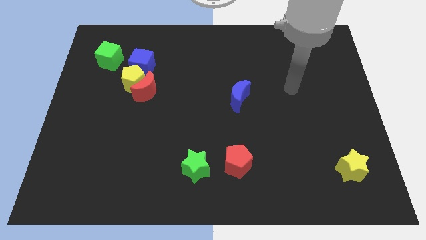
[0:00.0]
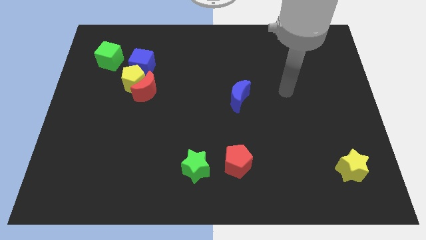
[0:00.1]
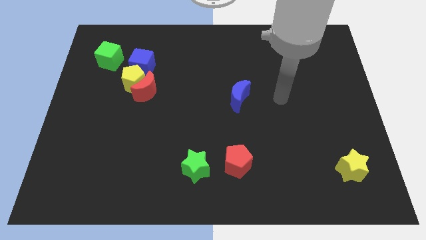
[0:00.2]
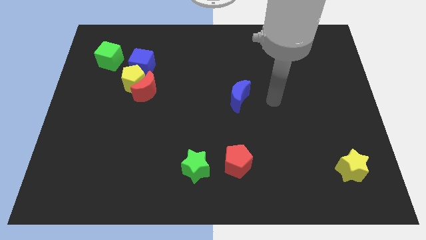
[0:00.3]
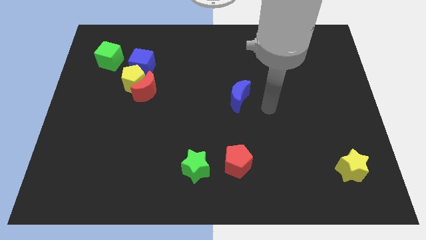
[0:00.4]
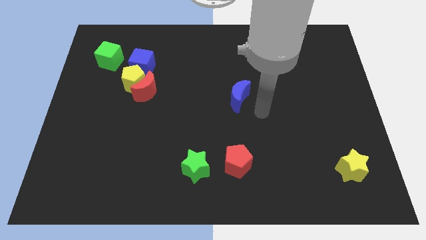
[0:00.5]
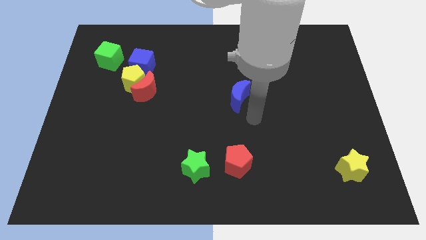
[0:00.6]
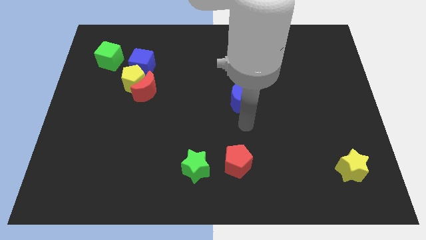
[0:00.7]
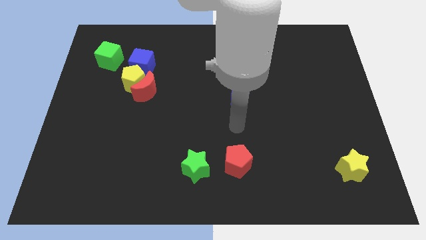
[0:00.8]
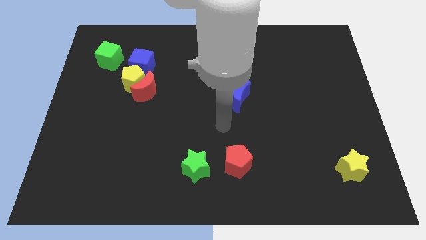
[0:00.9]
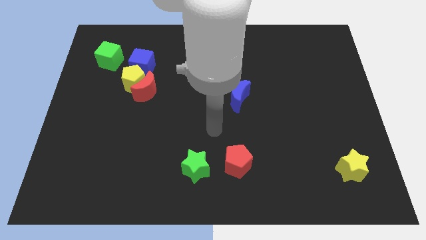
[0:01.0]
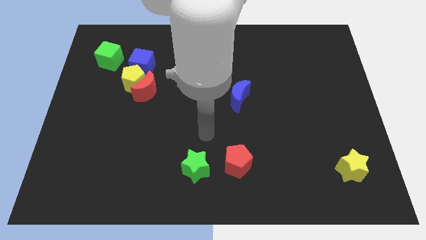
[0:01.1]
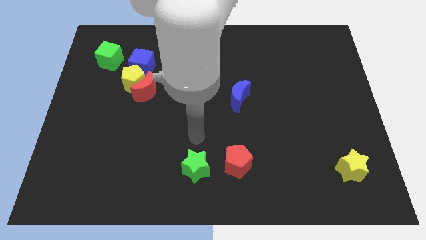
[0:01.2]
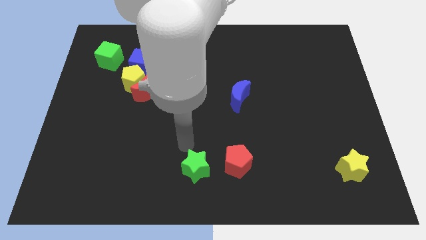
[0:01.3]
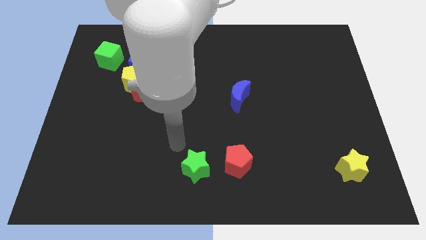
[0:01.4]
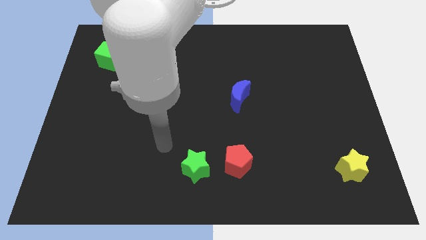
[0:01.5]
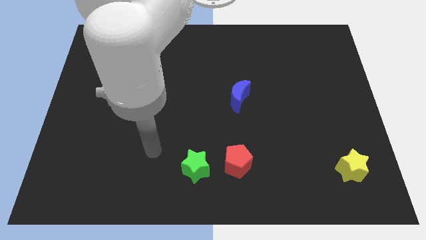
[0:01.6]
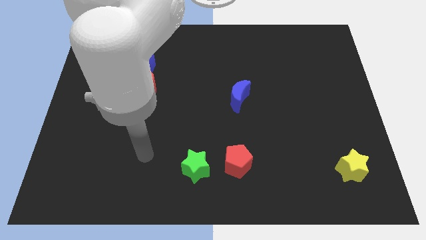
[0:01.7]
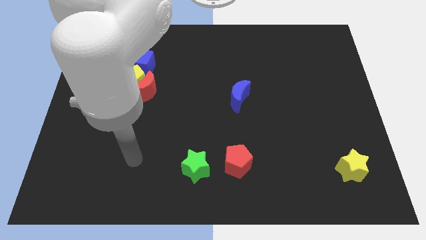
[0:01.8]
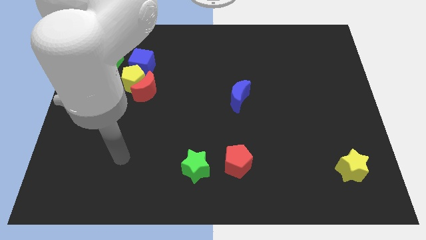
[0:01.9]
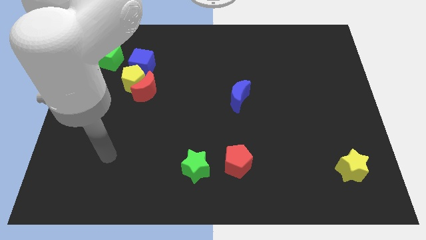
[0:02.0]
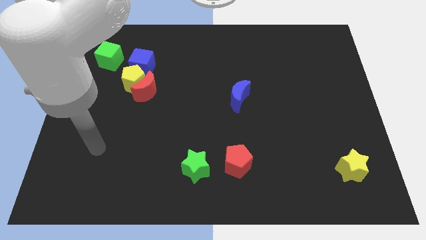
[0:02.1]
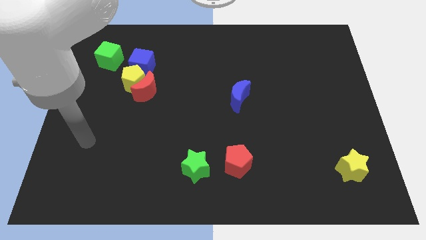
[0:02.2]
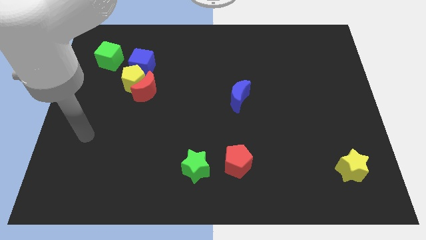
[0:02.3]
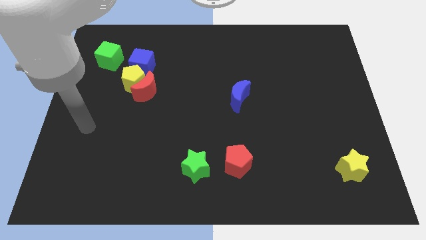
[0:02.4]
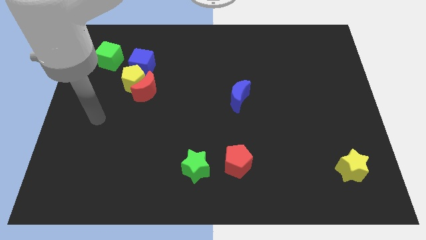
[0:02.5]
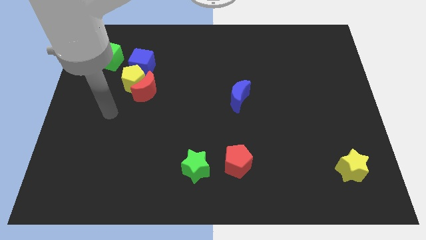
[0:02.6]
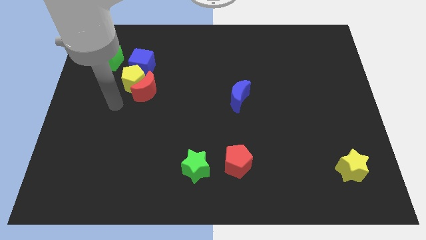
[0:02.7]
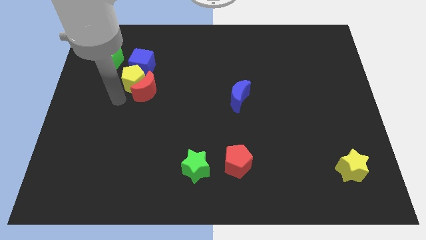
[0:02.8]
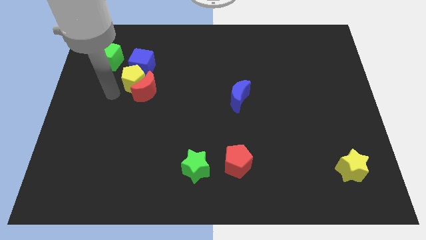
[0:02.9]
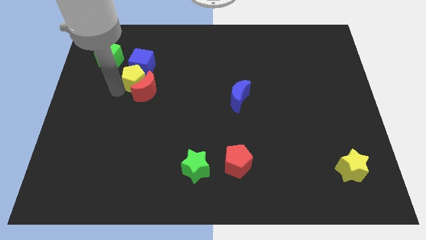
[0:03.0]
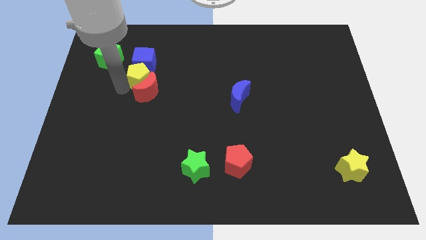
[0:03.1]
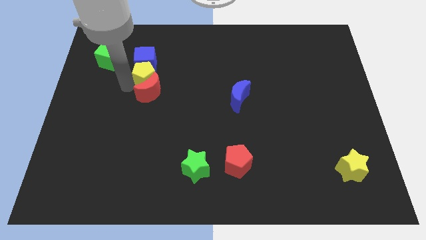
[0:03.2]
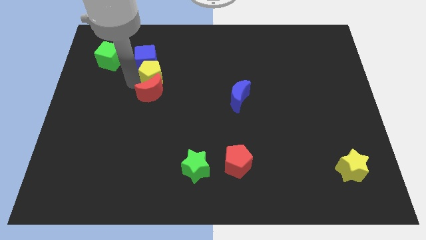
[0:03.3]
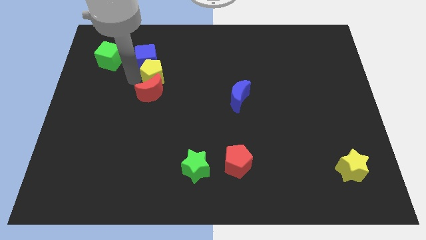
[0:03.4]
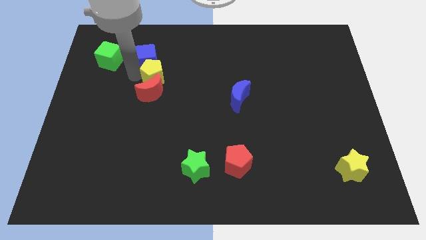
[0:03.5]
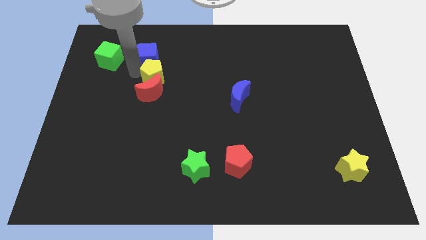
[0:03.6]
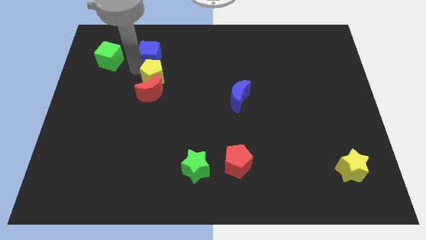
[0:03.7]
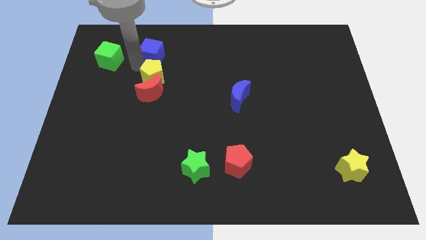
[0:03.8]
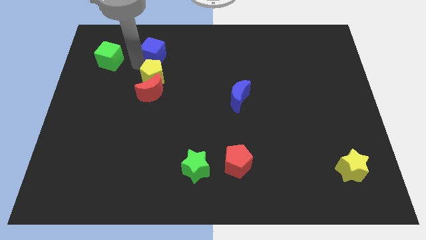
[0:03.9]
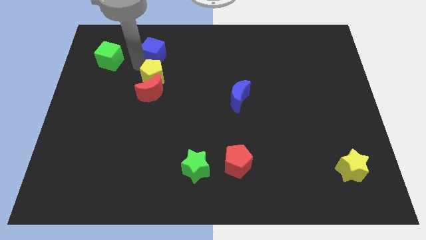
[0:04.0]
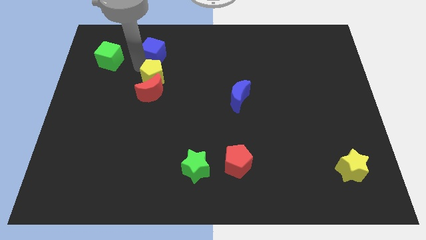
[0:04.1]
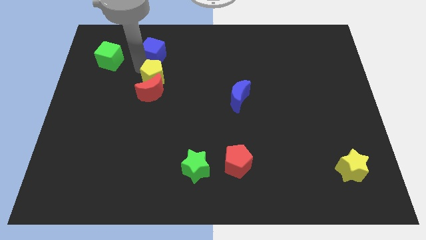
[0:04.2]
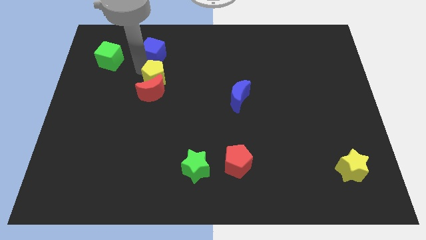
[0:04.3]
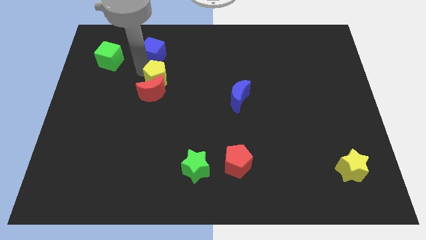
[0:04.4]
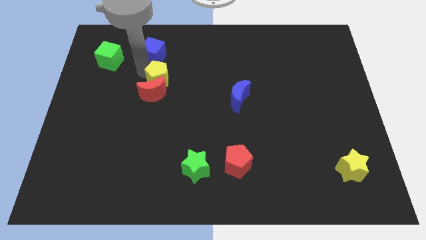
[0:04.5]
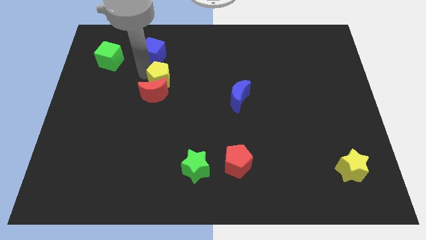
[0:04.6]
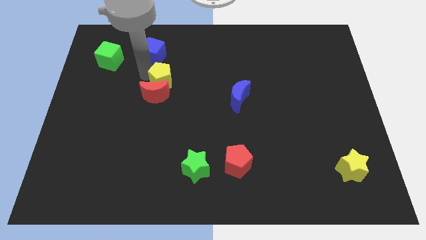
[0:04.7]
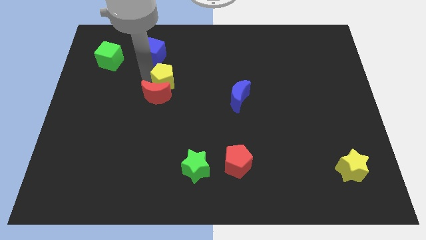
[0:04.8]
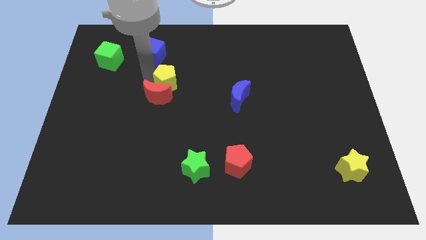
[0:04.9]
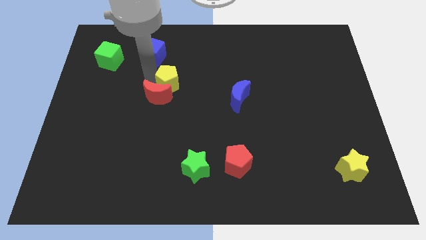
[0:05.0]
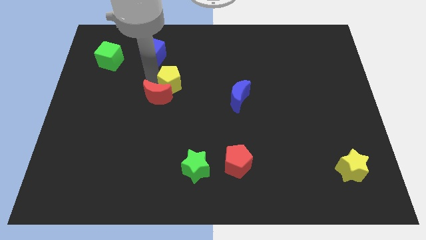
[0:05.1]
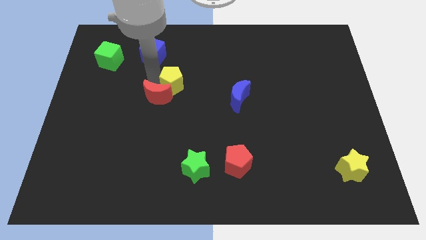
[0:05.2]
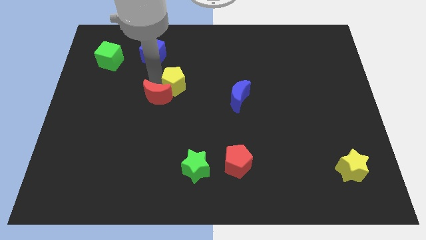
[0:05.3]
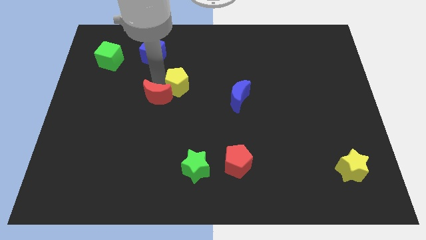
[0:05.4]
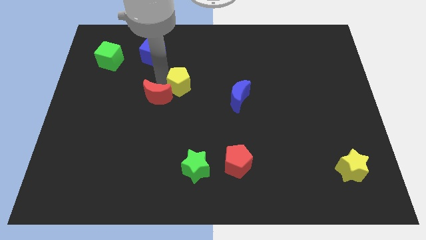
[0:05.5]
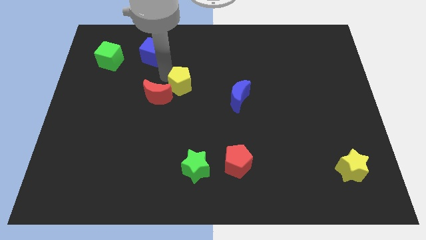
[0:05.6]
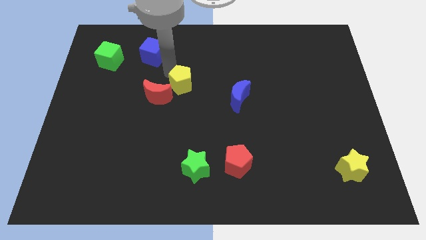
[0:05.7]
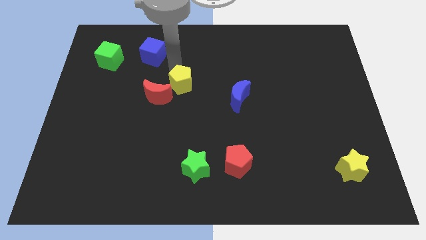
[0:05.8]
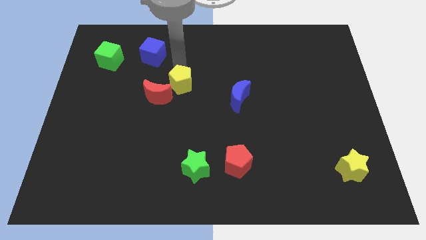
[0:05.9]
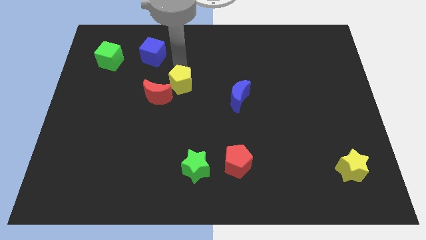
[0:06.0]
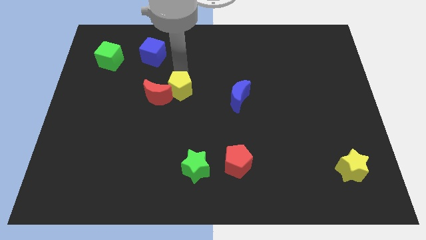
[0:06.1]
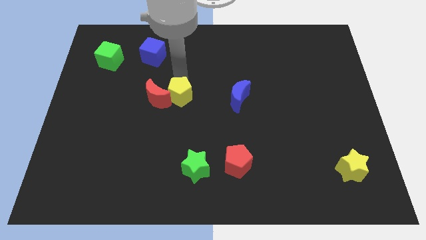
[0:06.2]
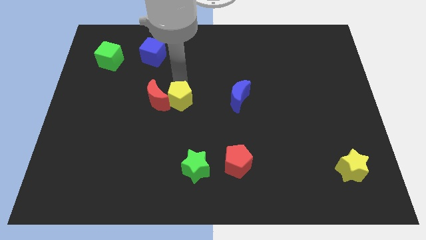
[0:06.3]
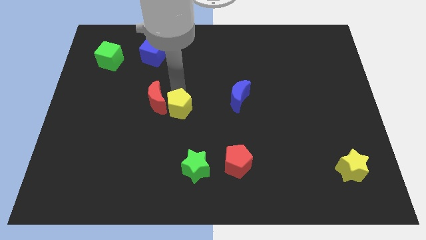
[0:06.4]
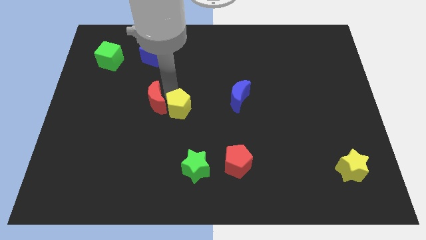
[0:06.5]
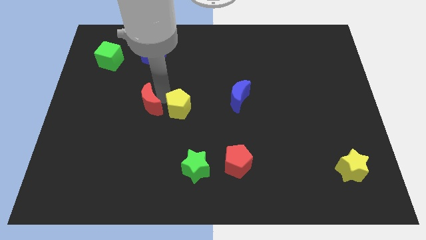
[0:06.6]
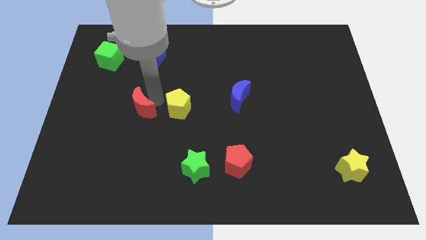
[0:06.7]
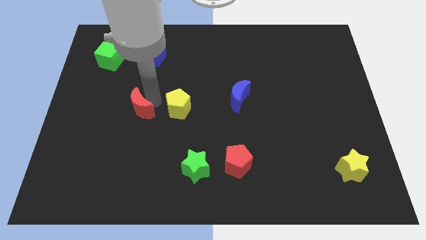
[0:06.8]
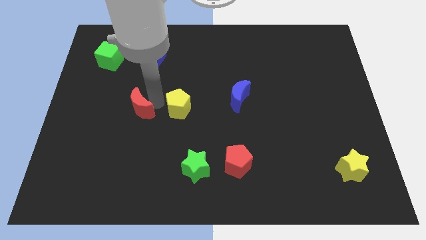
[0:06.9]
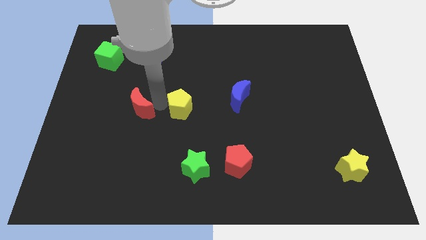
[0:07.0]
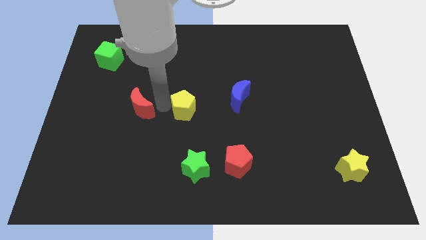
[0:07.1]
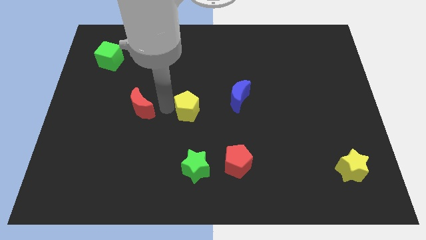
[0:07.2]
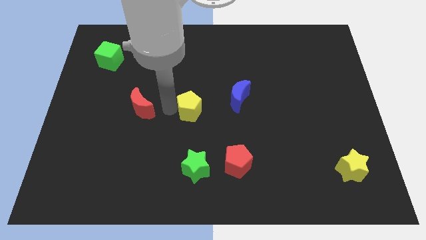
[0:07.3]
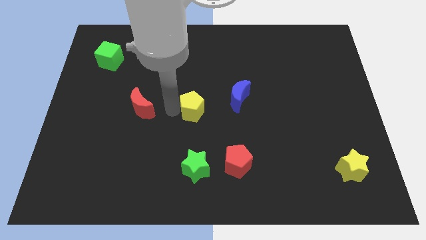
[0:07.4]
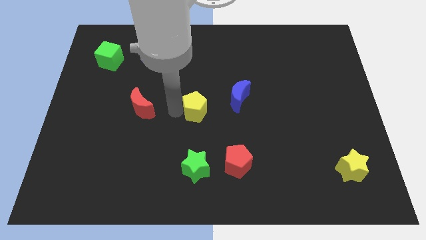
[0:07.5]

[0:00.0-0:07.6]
push the yellow pentagon to the bottom left of the blue moon
